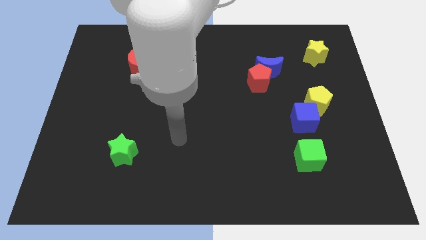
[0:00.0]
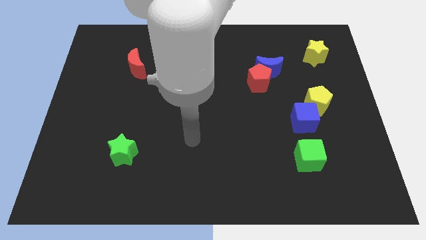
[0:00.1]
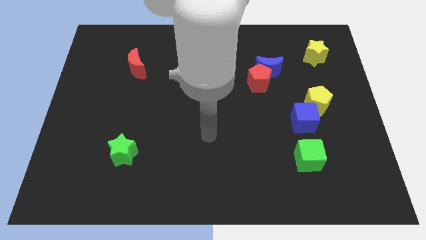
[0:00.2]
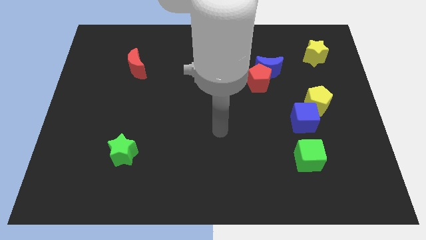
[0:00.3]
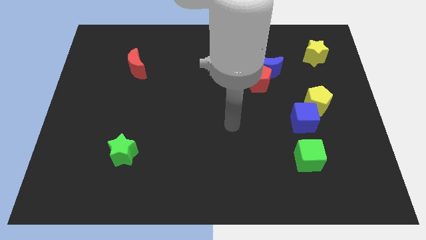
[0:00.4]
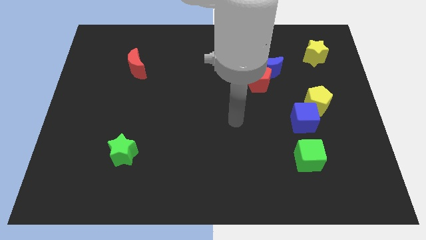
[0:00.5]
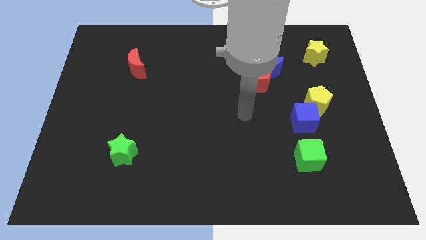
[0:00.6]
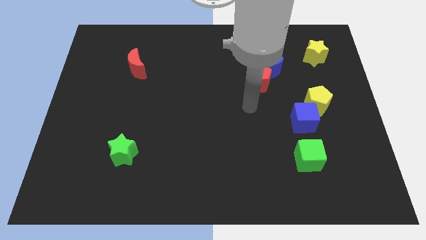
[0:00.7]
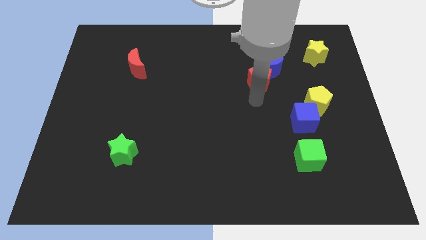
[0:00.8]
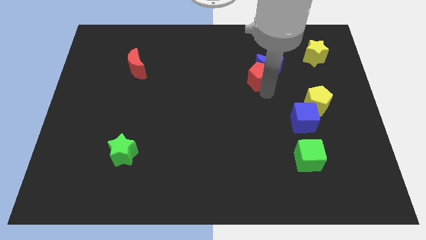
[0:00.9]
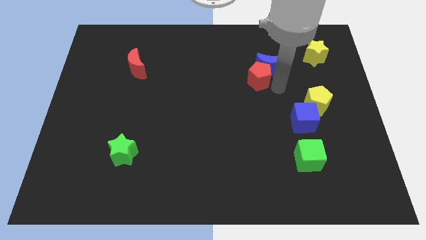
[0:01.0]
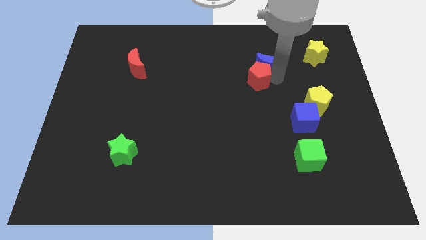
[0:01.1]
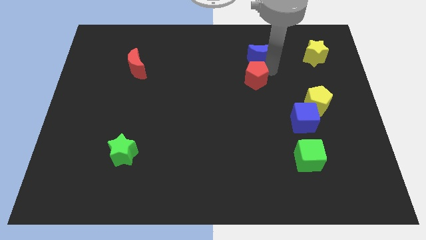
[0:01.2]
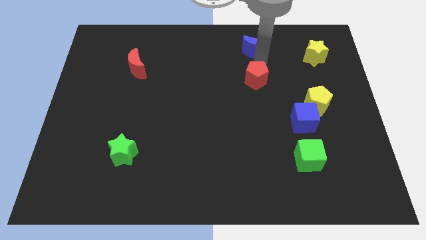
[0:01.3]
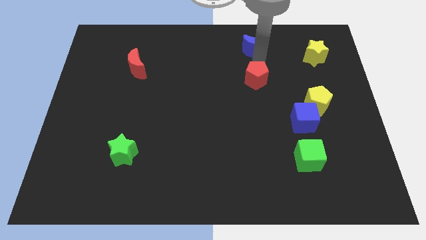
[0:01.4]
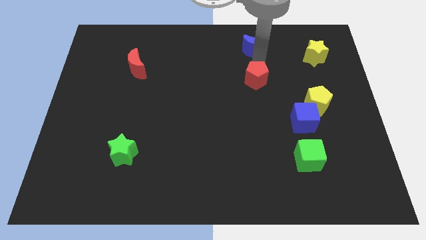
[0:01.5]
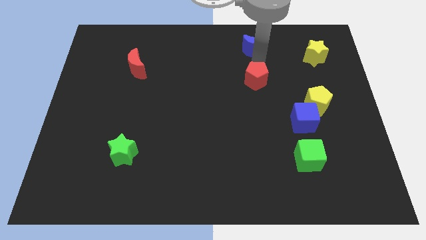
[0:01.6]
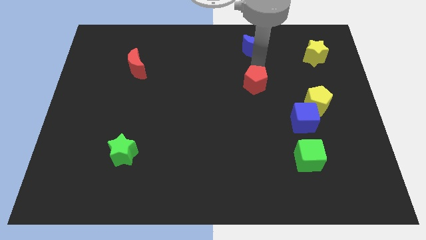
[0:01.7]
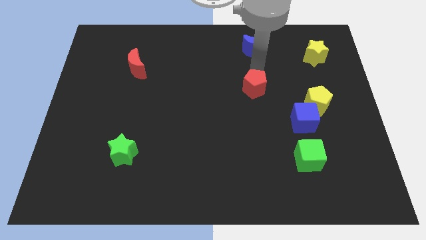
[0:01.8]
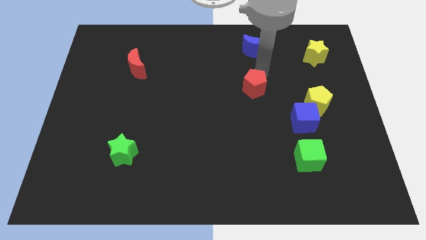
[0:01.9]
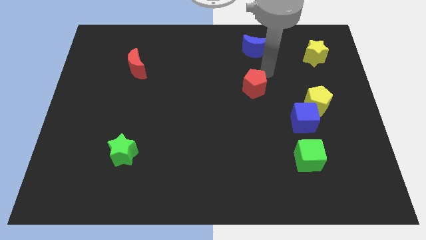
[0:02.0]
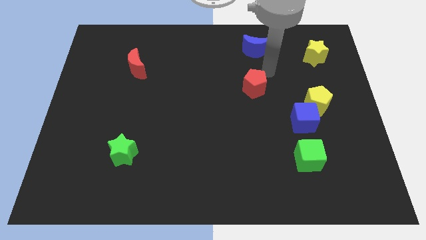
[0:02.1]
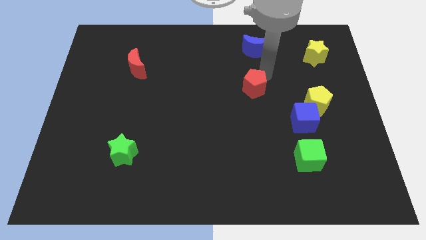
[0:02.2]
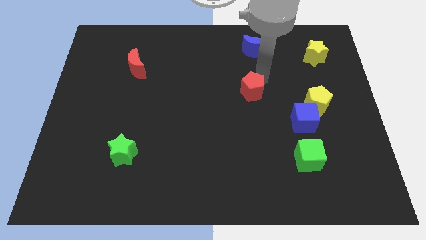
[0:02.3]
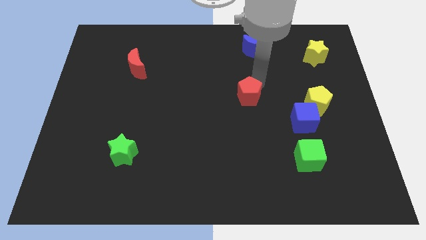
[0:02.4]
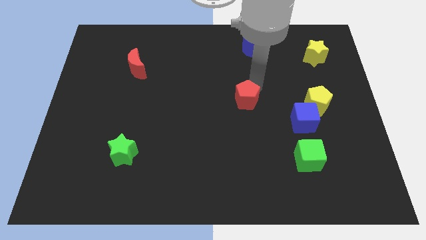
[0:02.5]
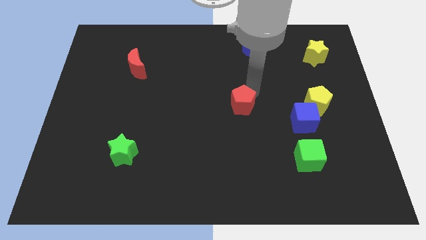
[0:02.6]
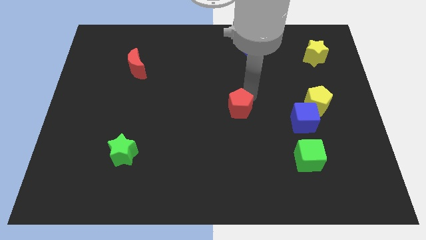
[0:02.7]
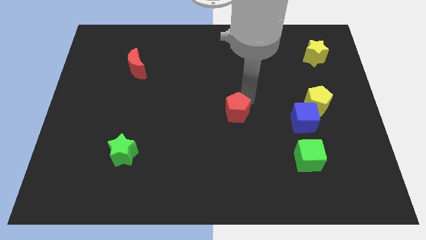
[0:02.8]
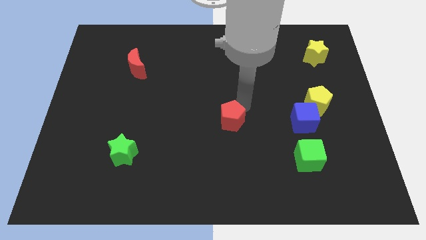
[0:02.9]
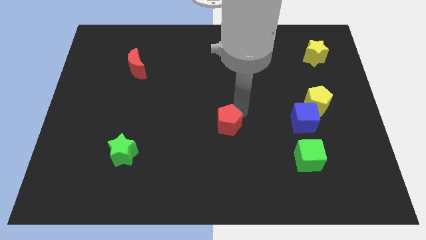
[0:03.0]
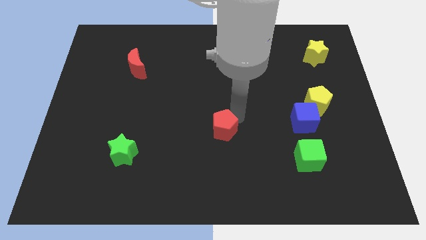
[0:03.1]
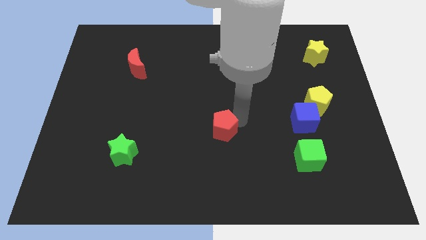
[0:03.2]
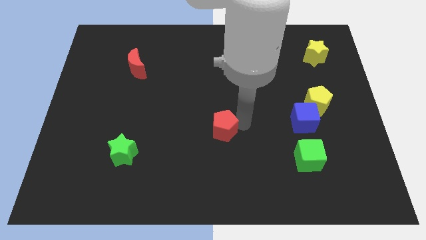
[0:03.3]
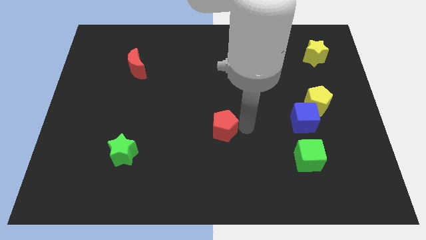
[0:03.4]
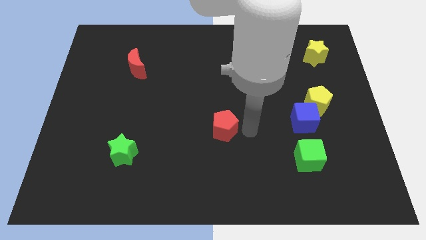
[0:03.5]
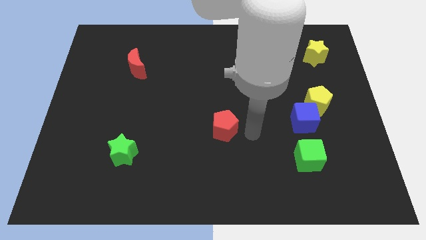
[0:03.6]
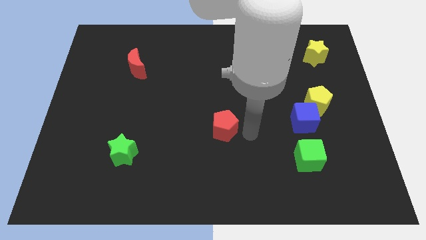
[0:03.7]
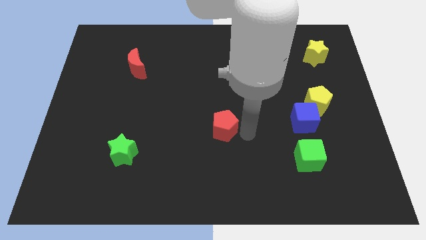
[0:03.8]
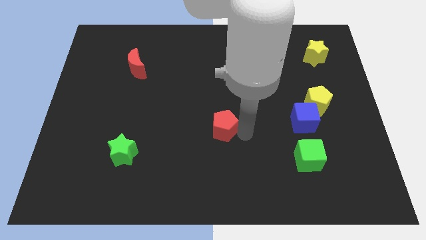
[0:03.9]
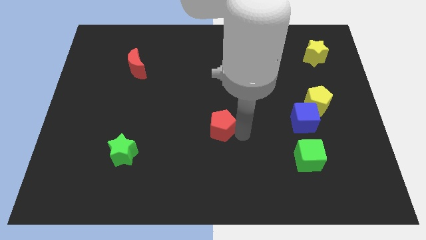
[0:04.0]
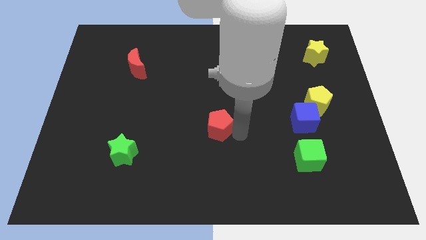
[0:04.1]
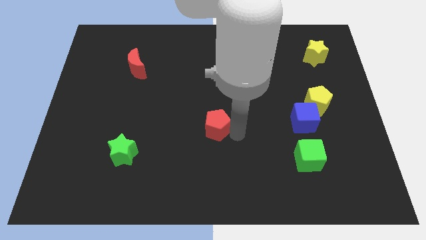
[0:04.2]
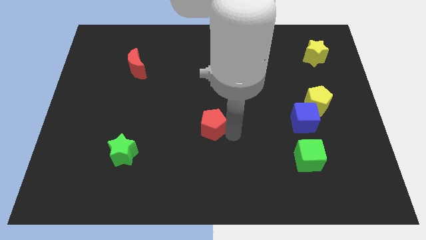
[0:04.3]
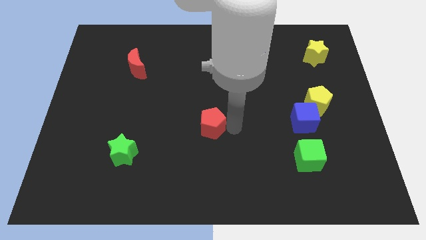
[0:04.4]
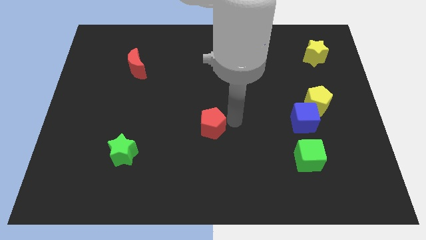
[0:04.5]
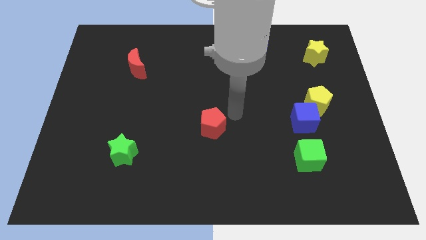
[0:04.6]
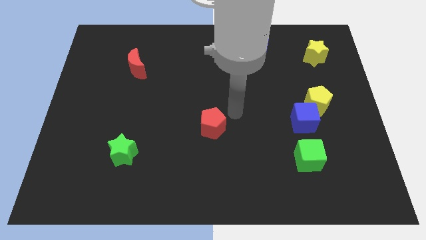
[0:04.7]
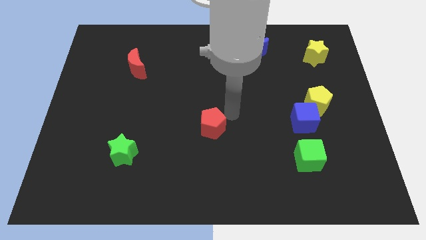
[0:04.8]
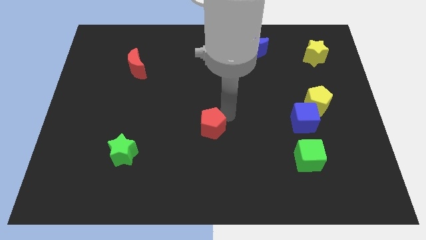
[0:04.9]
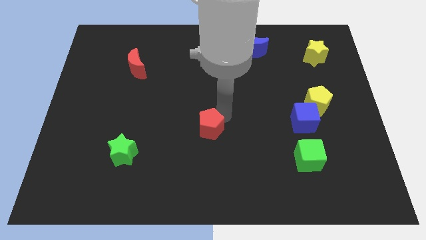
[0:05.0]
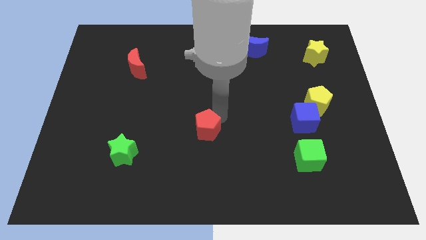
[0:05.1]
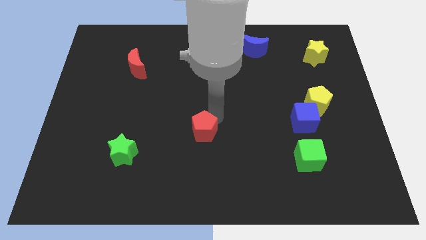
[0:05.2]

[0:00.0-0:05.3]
move the red pentagon down and left diagonally

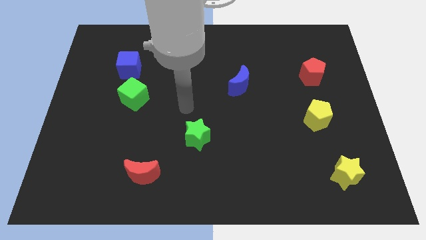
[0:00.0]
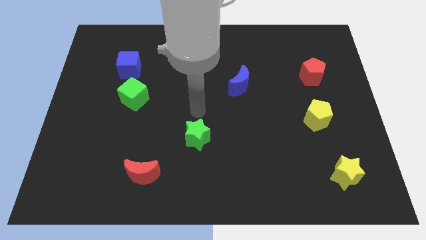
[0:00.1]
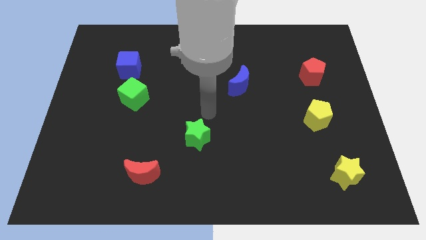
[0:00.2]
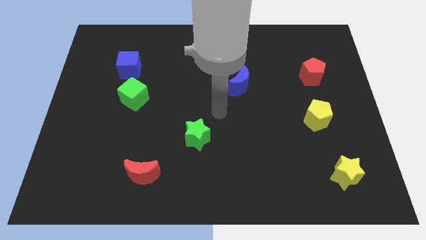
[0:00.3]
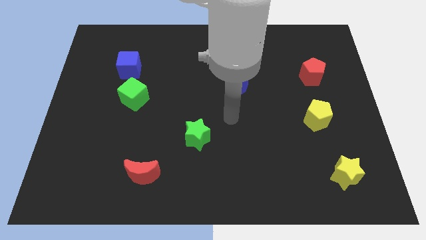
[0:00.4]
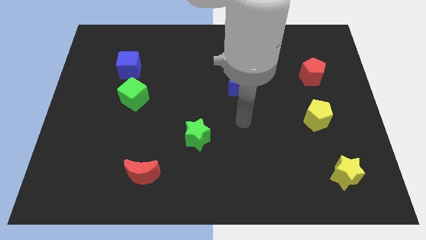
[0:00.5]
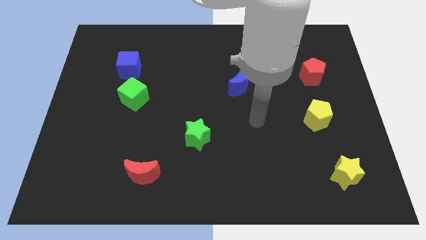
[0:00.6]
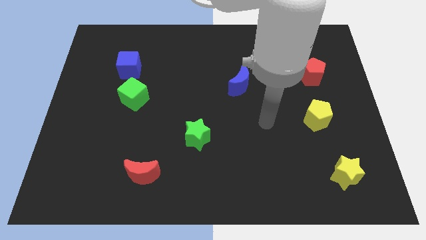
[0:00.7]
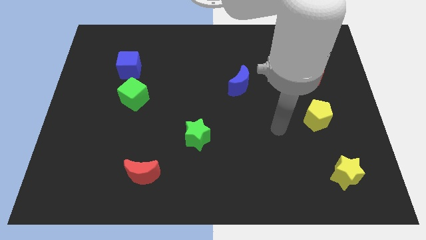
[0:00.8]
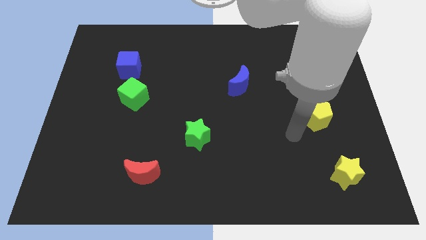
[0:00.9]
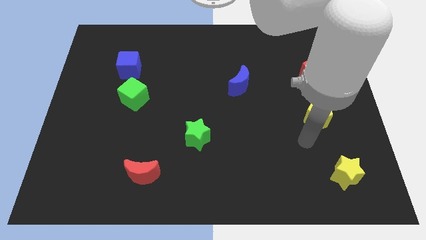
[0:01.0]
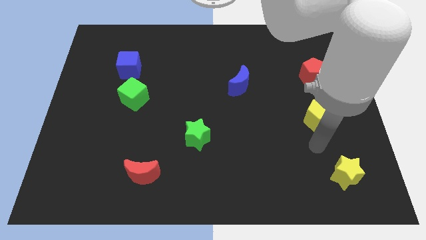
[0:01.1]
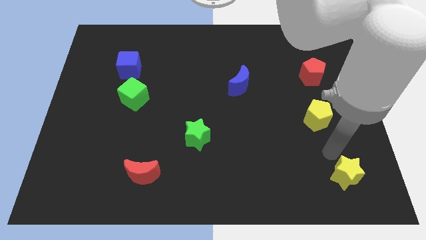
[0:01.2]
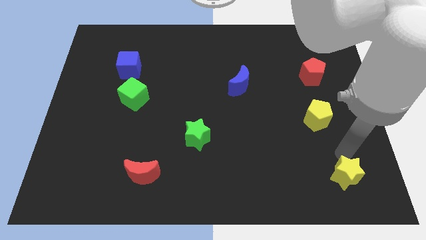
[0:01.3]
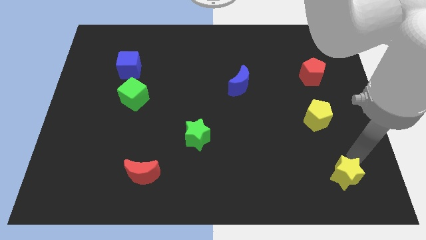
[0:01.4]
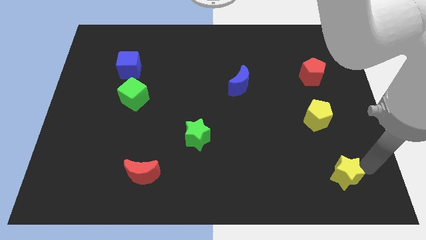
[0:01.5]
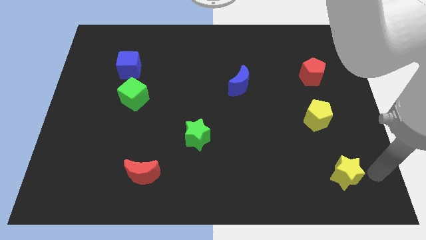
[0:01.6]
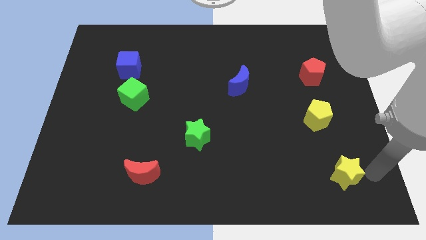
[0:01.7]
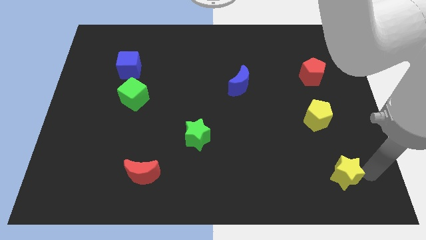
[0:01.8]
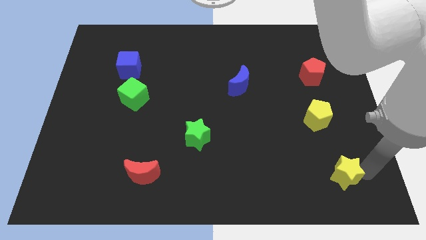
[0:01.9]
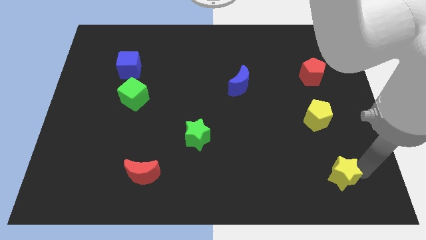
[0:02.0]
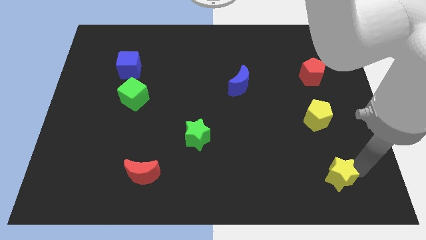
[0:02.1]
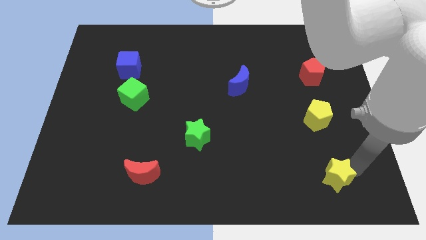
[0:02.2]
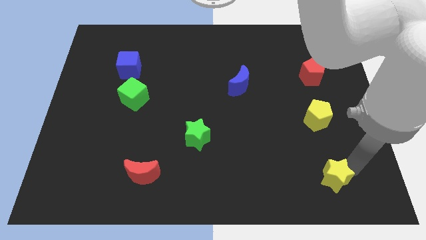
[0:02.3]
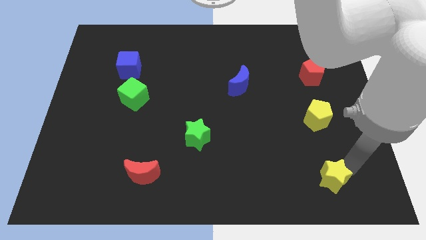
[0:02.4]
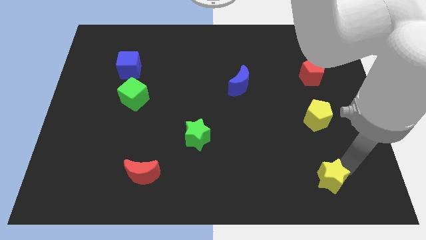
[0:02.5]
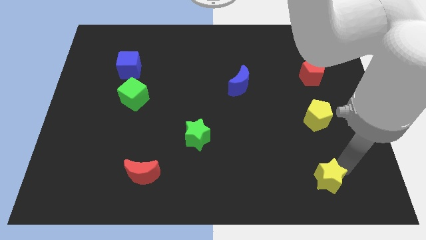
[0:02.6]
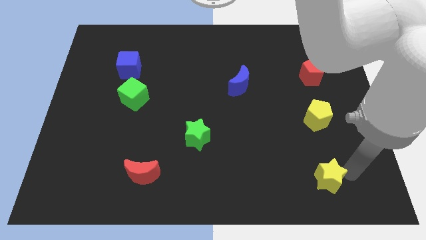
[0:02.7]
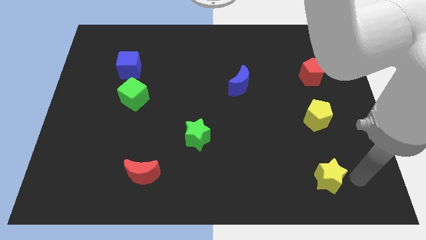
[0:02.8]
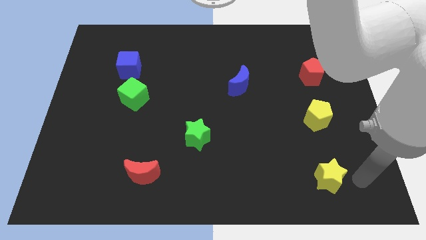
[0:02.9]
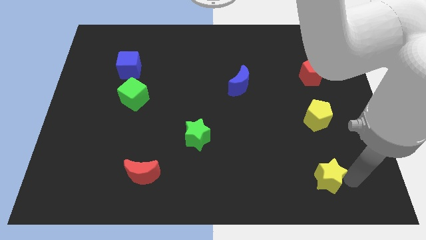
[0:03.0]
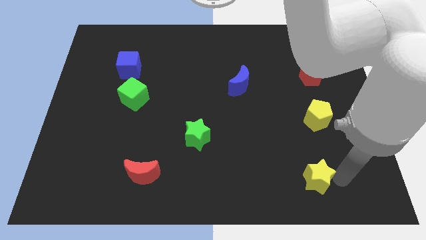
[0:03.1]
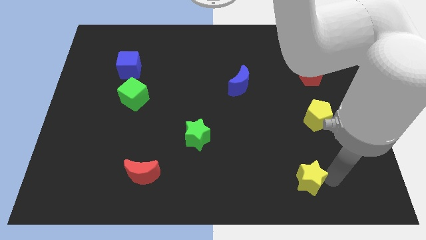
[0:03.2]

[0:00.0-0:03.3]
push the yellow star left a little bit
